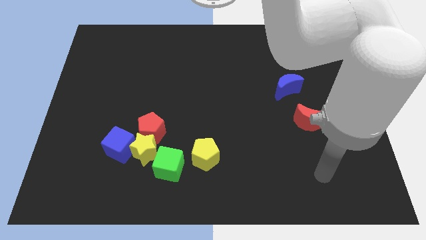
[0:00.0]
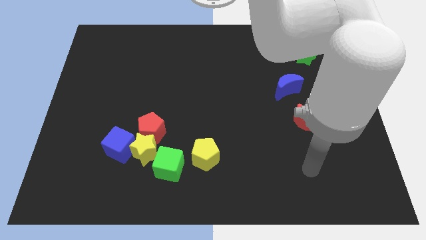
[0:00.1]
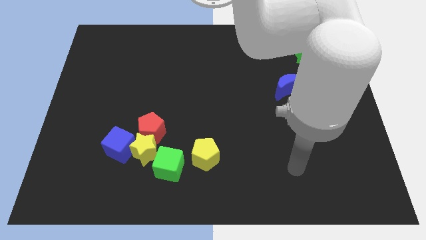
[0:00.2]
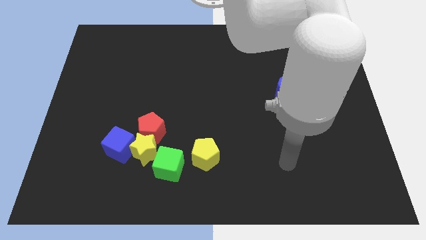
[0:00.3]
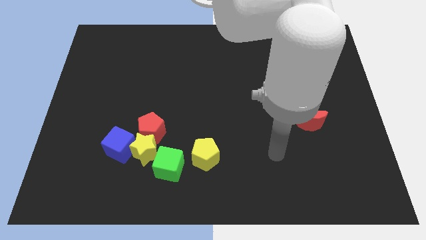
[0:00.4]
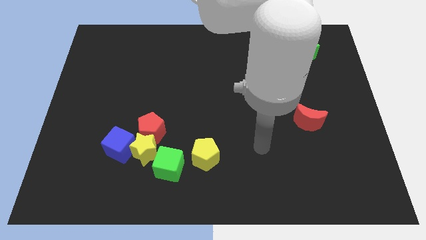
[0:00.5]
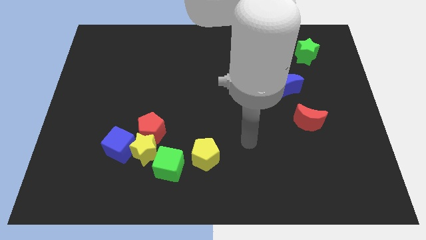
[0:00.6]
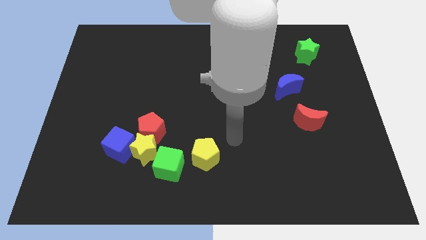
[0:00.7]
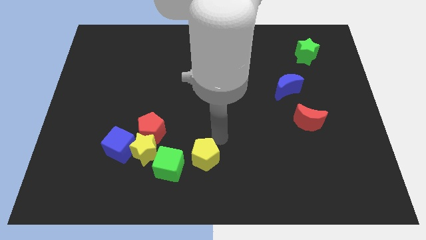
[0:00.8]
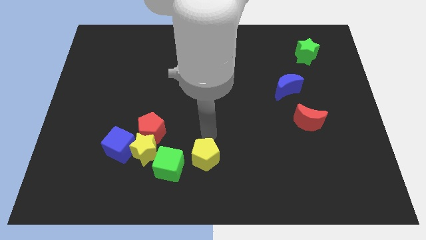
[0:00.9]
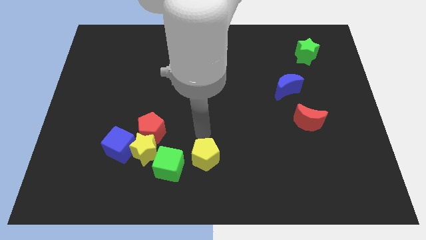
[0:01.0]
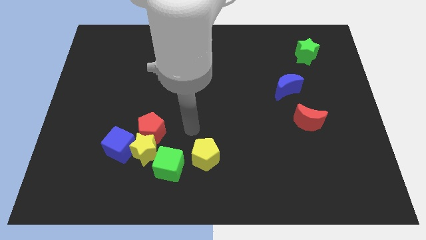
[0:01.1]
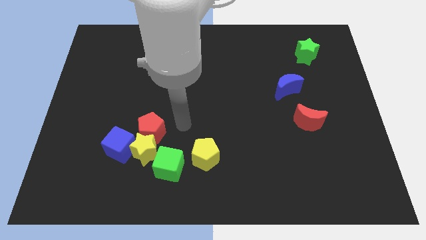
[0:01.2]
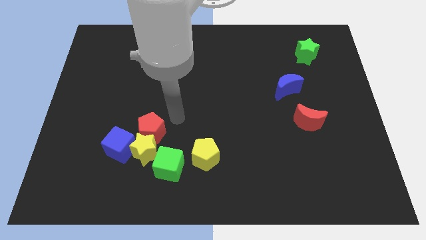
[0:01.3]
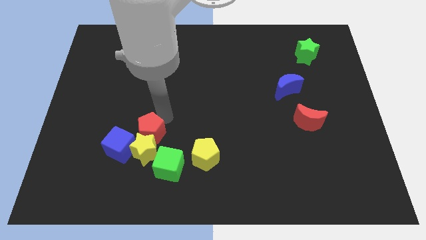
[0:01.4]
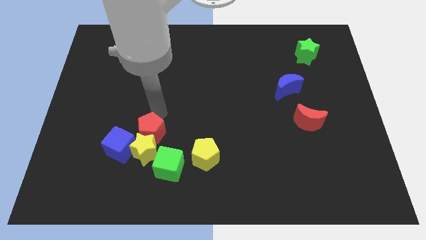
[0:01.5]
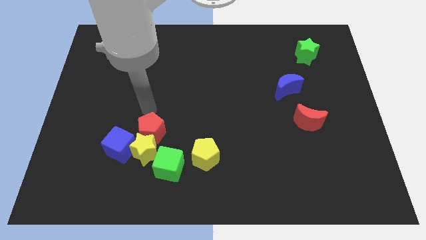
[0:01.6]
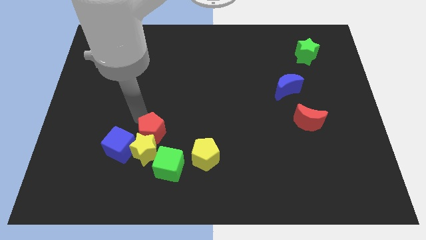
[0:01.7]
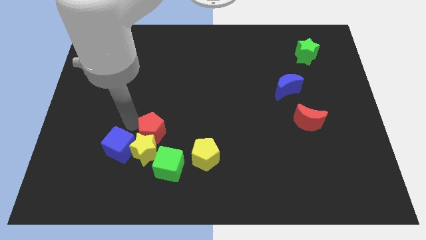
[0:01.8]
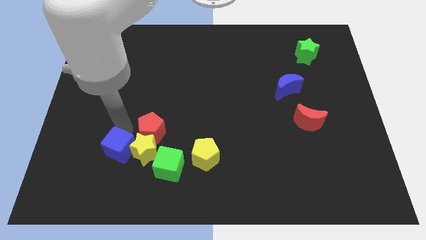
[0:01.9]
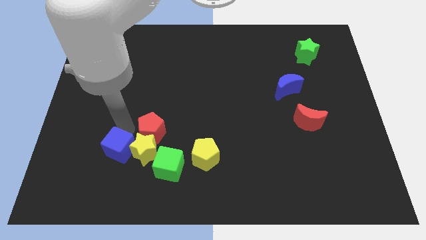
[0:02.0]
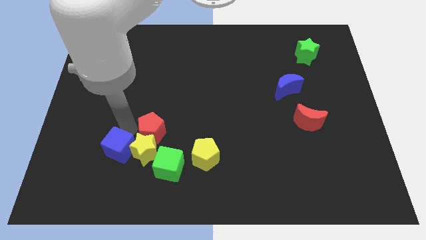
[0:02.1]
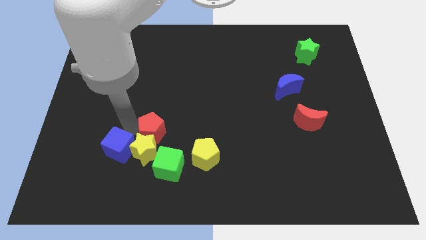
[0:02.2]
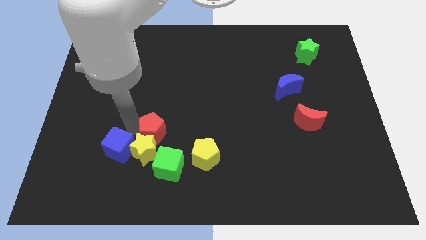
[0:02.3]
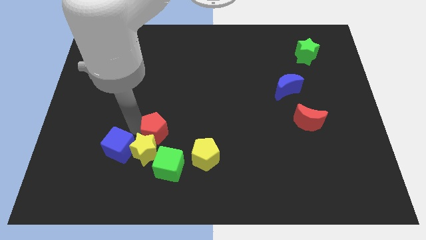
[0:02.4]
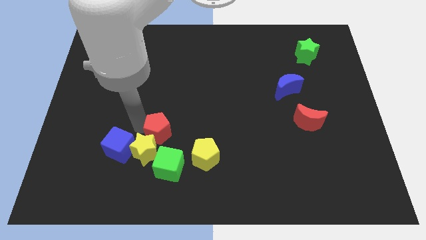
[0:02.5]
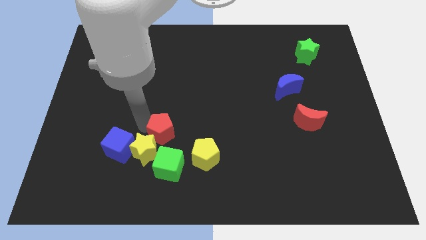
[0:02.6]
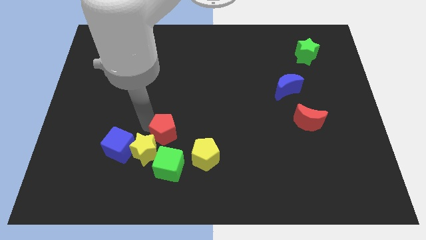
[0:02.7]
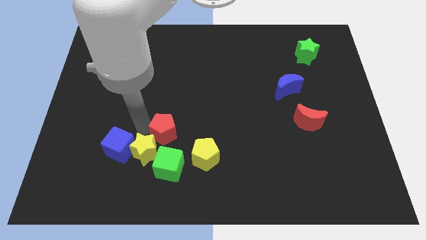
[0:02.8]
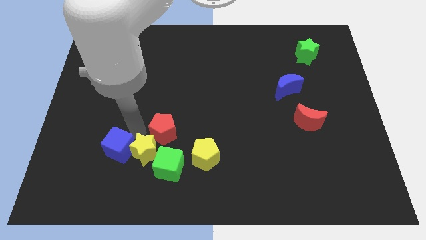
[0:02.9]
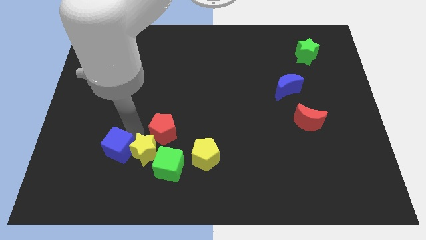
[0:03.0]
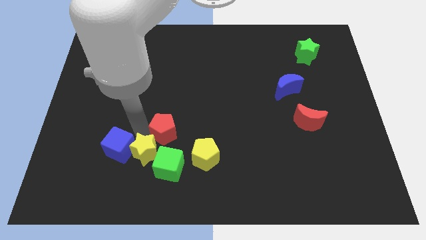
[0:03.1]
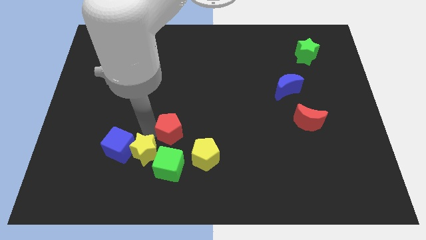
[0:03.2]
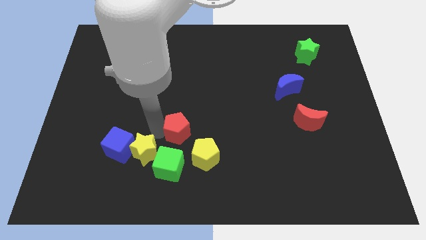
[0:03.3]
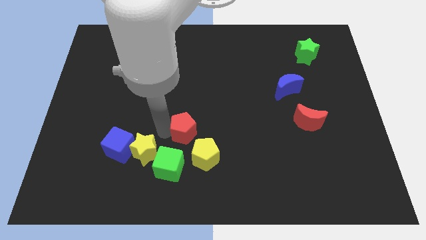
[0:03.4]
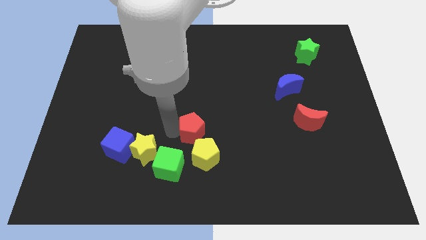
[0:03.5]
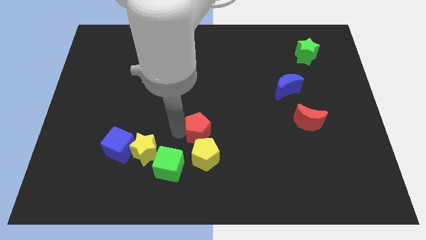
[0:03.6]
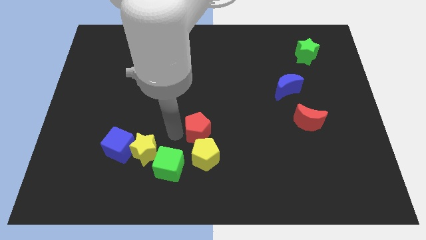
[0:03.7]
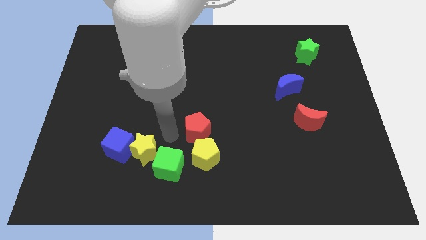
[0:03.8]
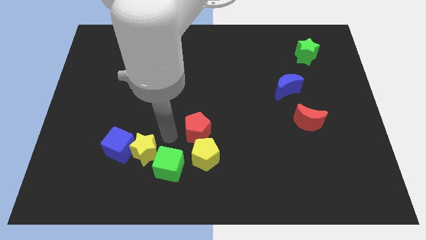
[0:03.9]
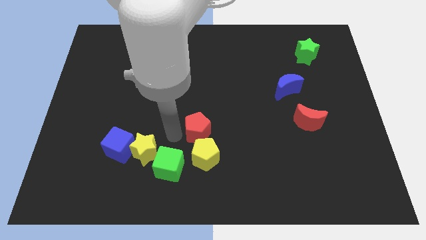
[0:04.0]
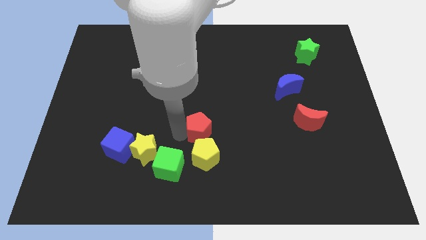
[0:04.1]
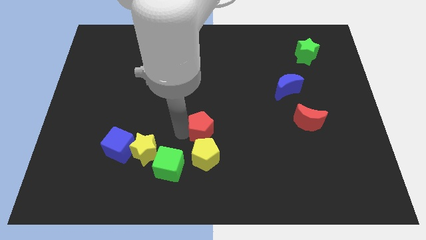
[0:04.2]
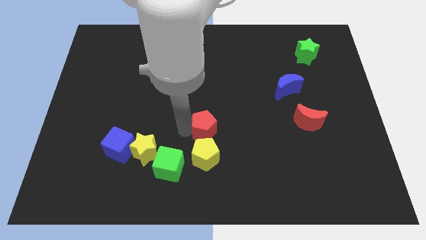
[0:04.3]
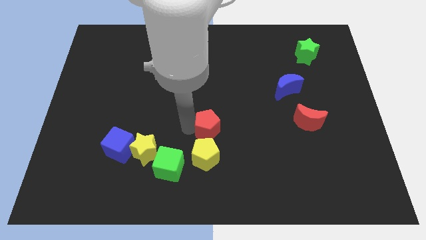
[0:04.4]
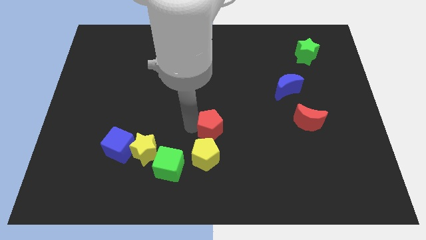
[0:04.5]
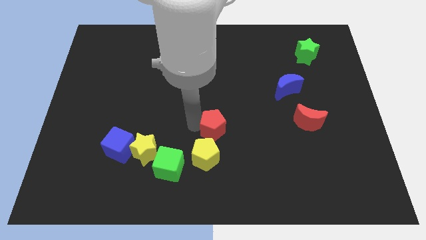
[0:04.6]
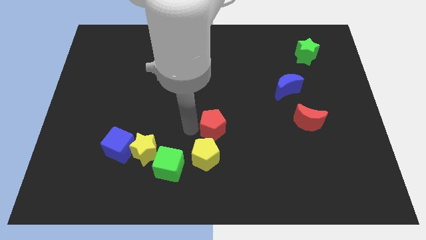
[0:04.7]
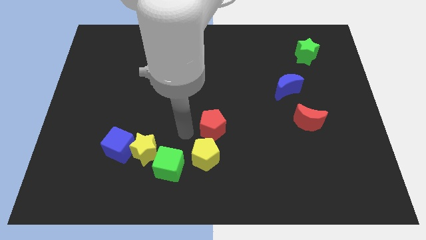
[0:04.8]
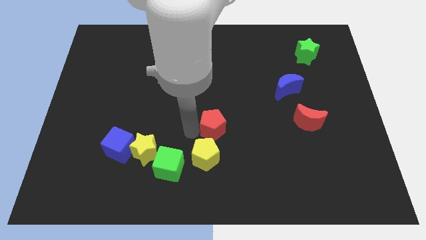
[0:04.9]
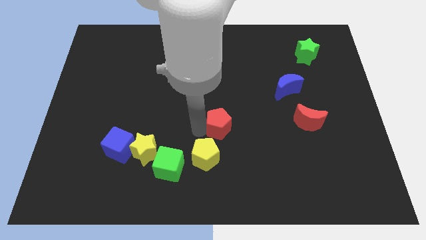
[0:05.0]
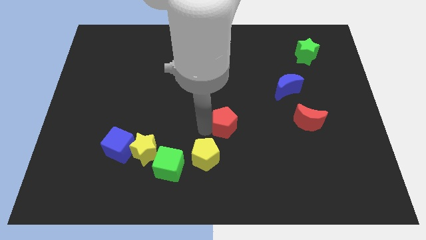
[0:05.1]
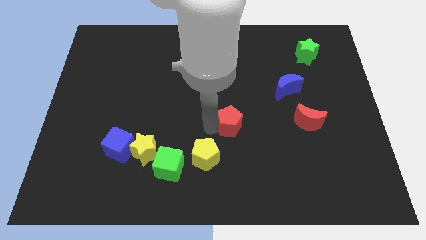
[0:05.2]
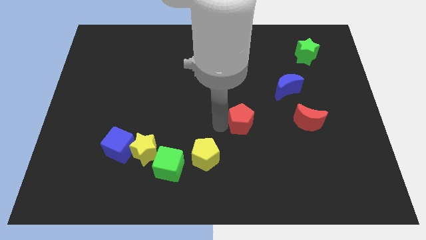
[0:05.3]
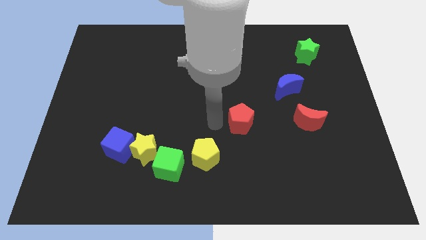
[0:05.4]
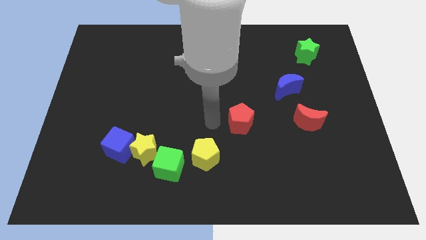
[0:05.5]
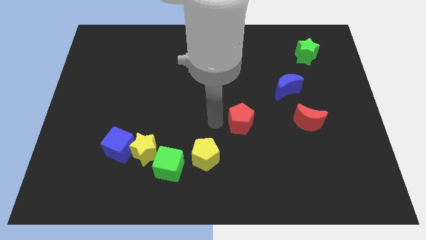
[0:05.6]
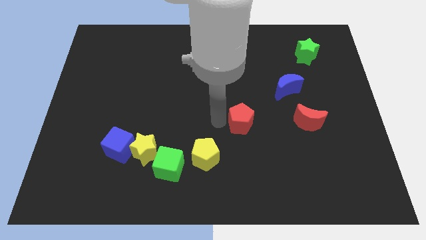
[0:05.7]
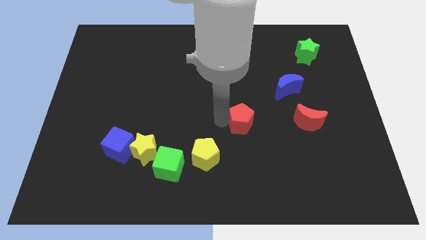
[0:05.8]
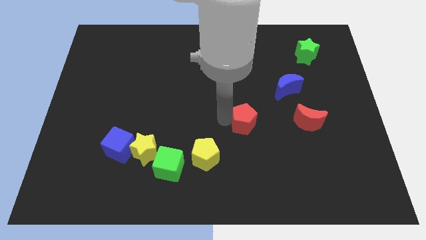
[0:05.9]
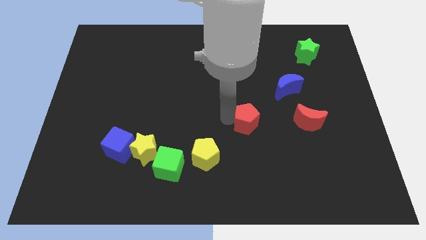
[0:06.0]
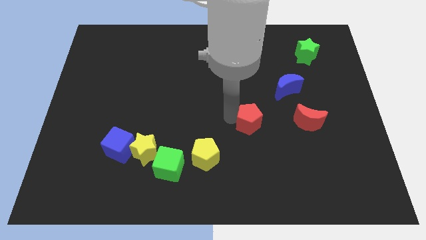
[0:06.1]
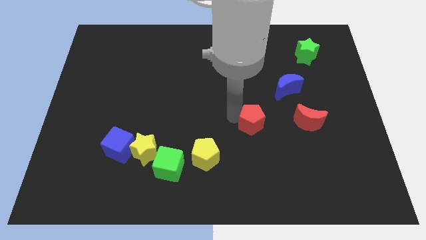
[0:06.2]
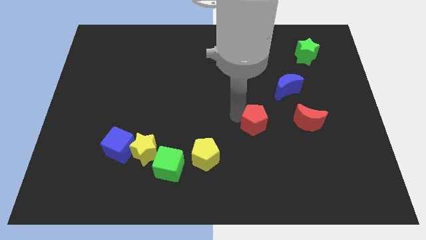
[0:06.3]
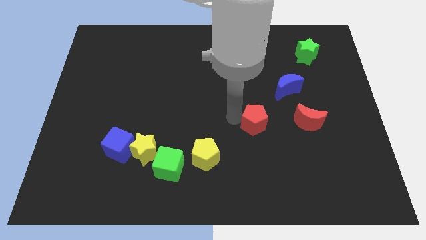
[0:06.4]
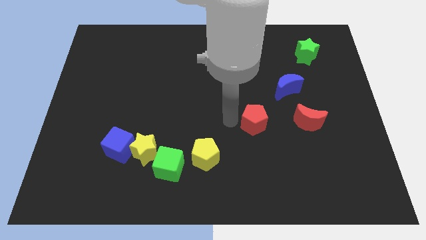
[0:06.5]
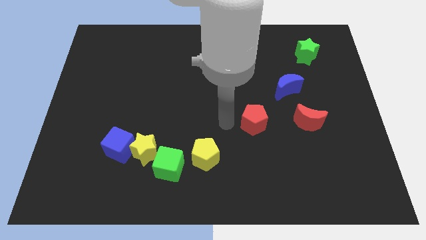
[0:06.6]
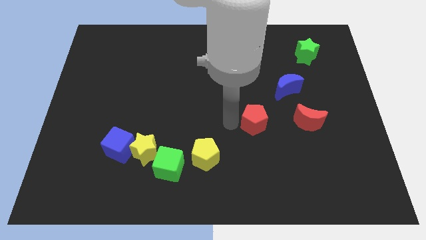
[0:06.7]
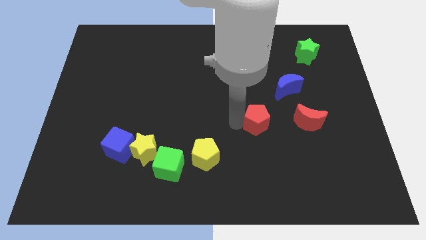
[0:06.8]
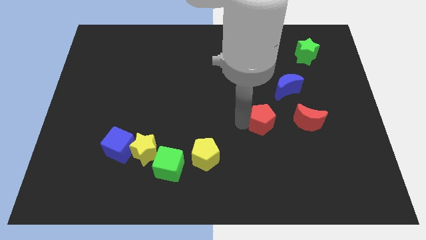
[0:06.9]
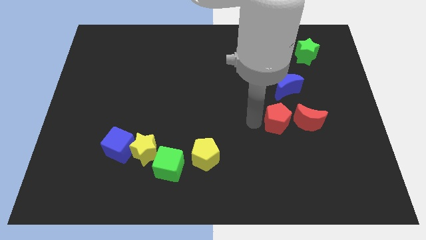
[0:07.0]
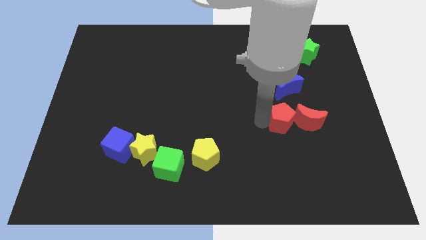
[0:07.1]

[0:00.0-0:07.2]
put the red pentagon next to the red moon

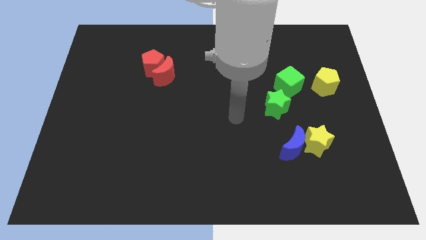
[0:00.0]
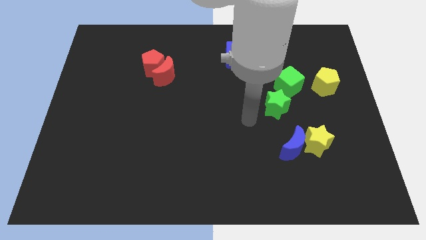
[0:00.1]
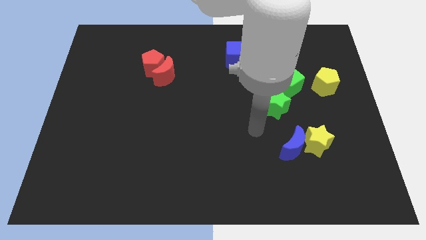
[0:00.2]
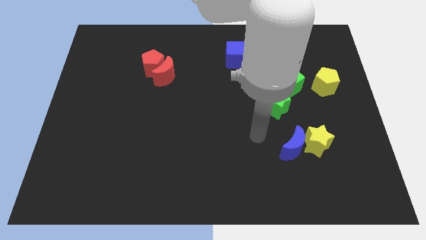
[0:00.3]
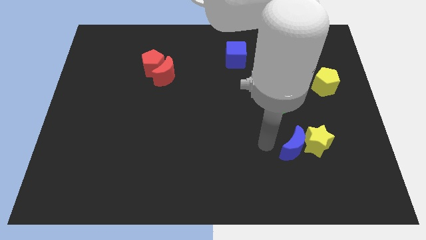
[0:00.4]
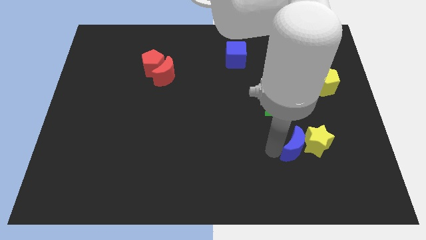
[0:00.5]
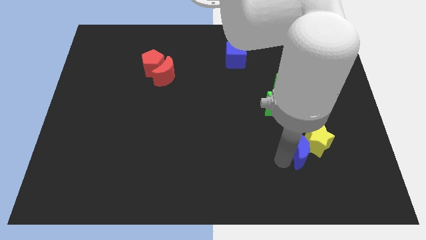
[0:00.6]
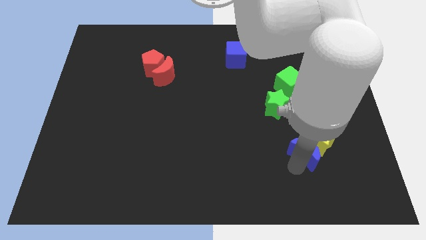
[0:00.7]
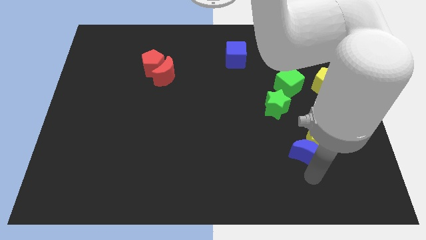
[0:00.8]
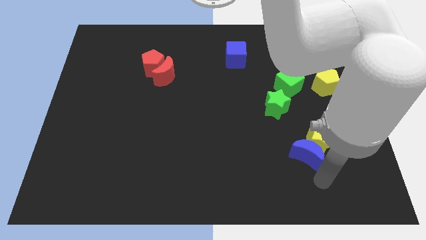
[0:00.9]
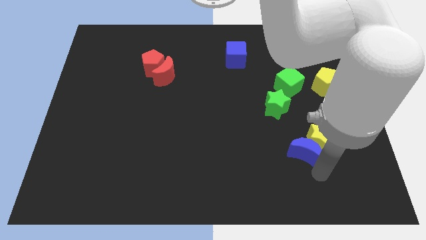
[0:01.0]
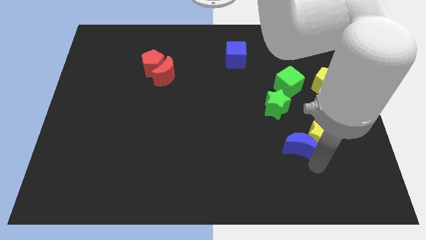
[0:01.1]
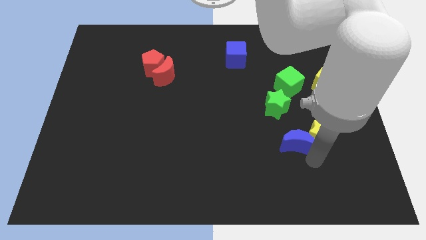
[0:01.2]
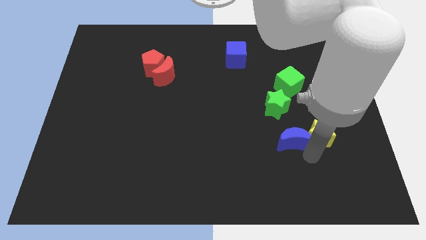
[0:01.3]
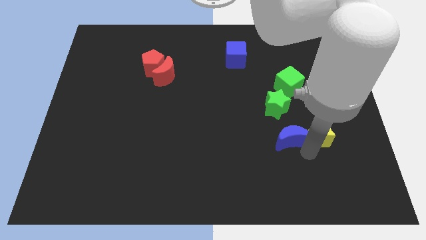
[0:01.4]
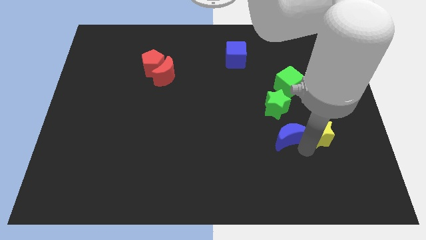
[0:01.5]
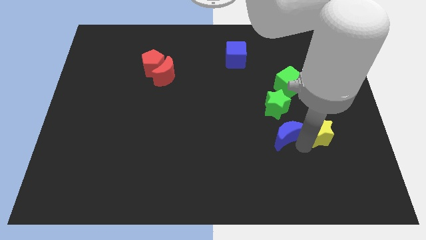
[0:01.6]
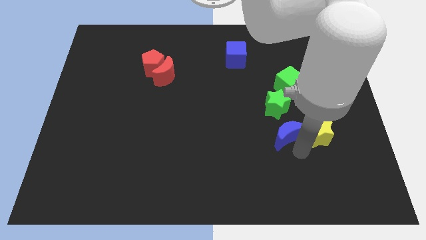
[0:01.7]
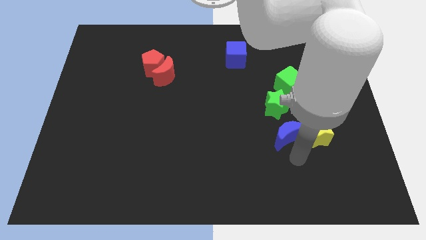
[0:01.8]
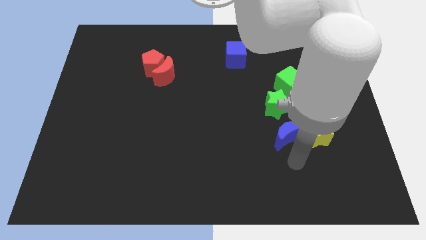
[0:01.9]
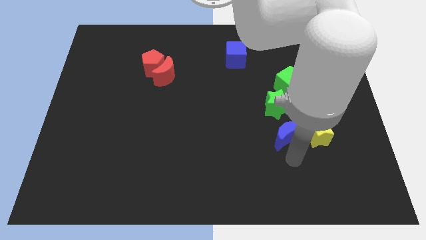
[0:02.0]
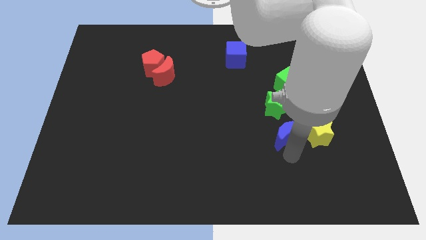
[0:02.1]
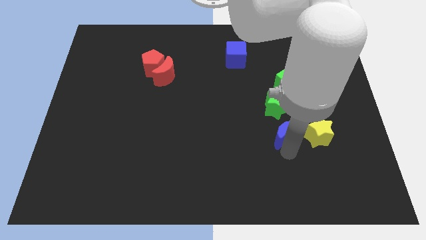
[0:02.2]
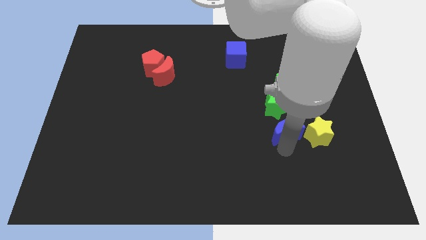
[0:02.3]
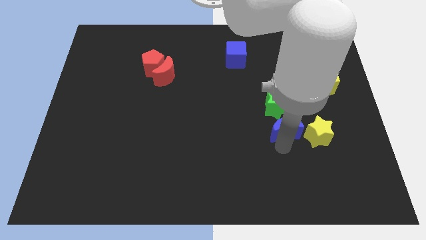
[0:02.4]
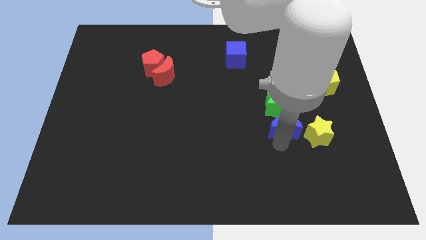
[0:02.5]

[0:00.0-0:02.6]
move the blue moon next to the green star
